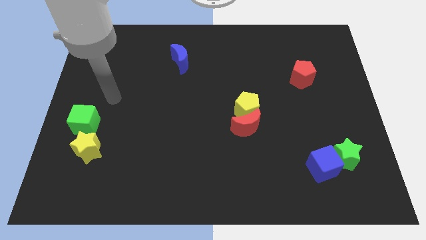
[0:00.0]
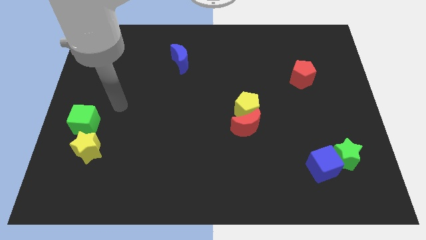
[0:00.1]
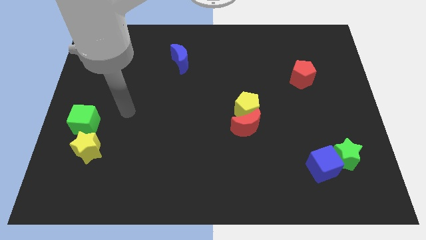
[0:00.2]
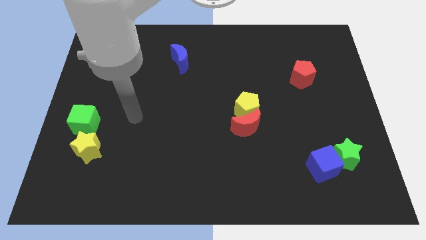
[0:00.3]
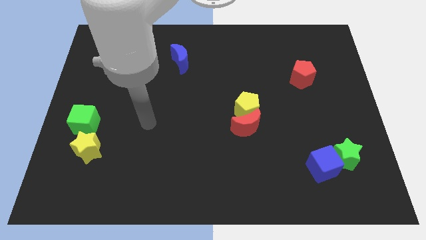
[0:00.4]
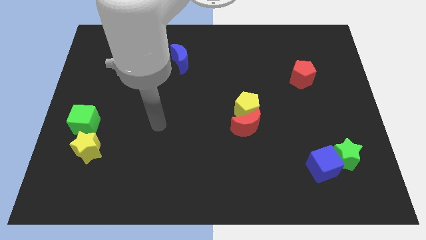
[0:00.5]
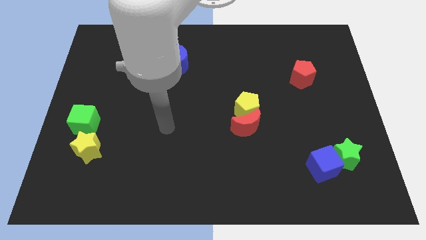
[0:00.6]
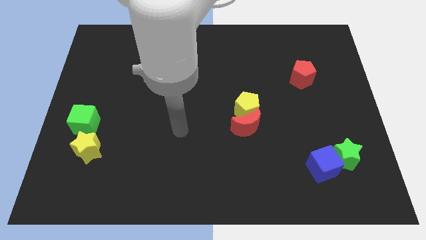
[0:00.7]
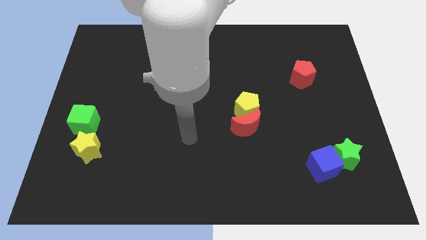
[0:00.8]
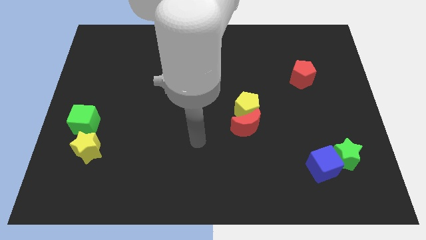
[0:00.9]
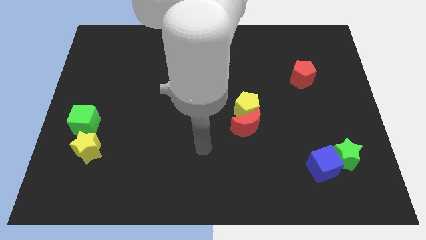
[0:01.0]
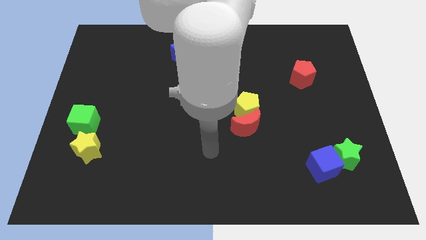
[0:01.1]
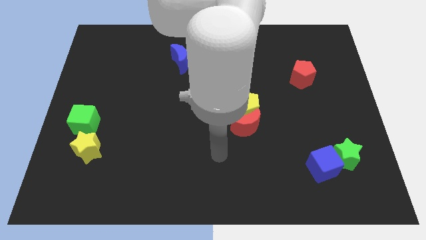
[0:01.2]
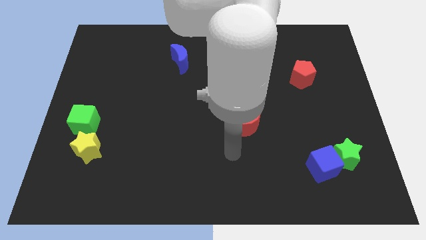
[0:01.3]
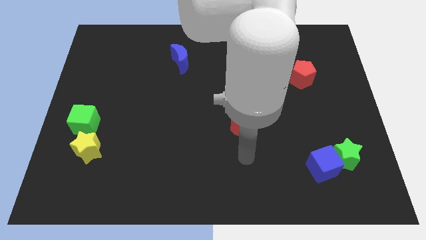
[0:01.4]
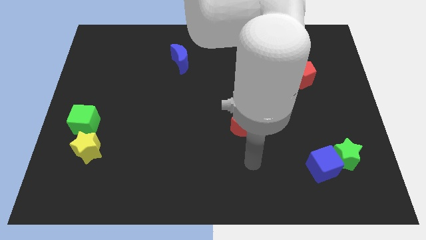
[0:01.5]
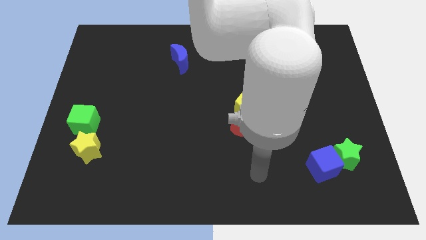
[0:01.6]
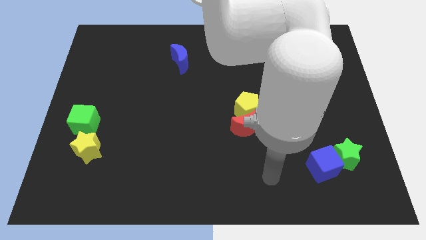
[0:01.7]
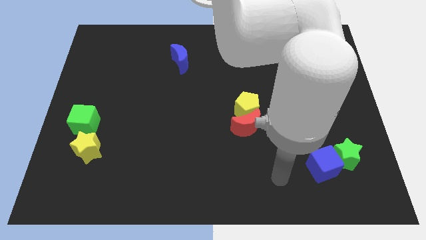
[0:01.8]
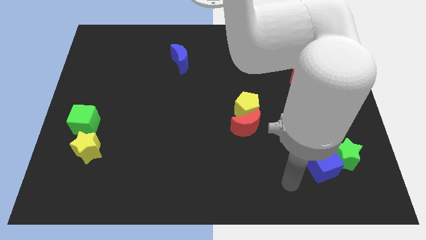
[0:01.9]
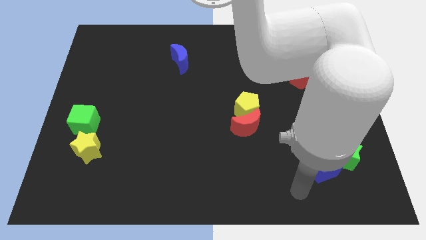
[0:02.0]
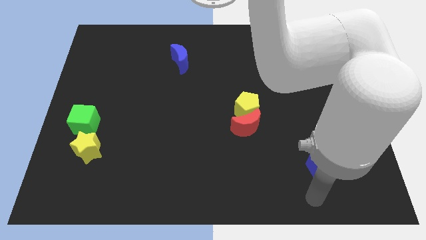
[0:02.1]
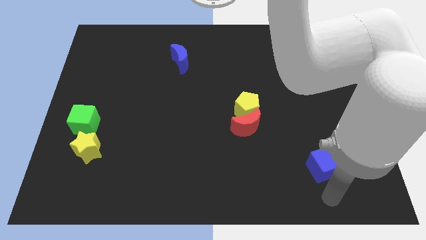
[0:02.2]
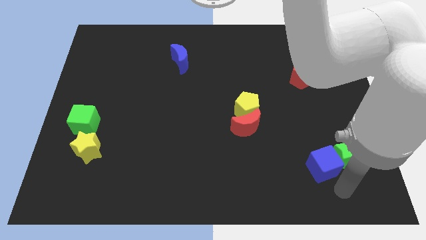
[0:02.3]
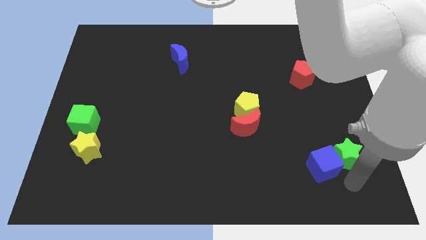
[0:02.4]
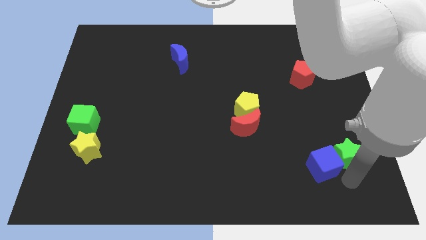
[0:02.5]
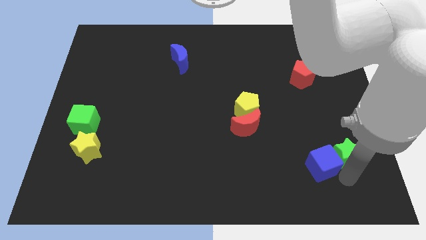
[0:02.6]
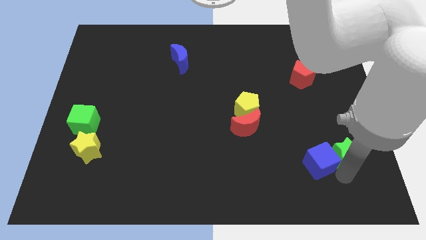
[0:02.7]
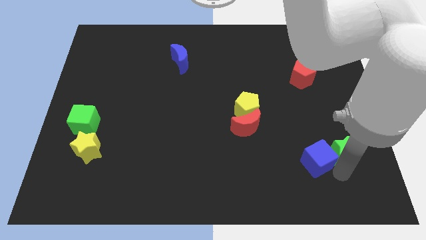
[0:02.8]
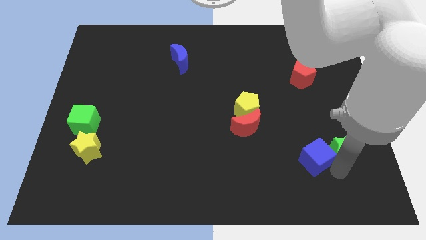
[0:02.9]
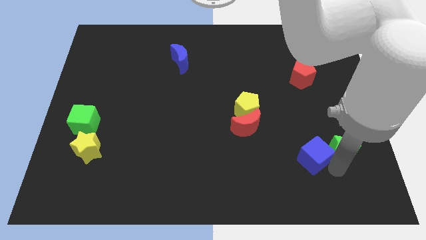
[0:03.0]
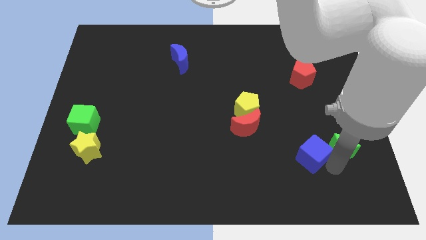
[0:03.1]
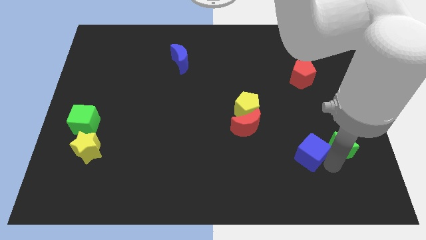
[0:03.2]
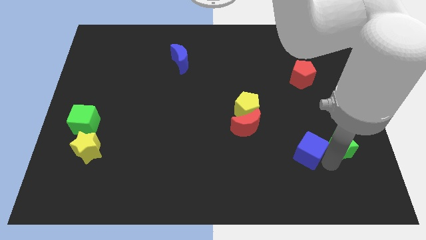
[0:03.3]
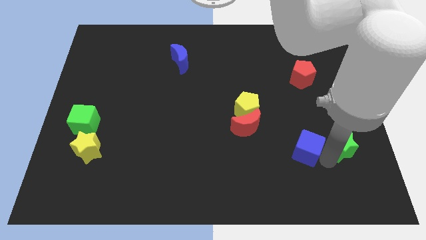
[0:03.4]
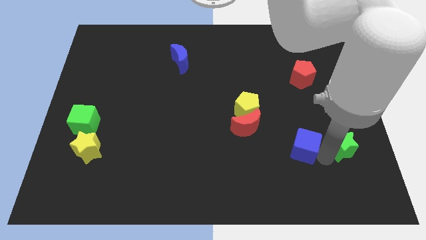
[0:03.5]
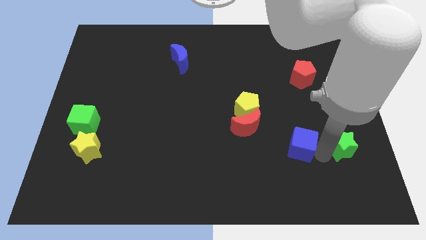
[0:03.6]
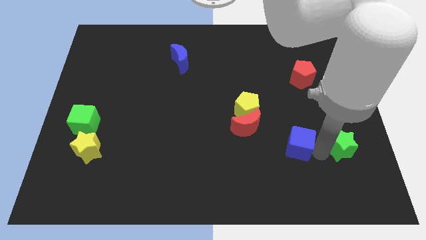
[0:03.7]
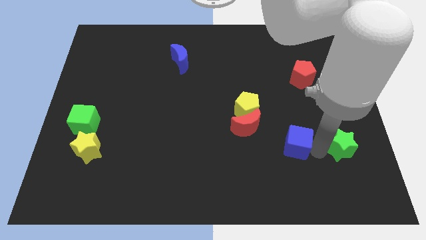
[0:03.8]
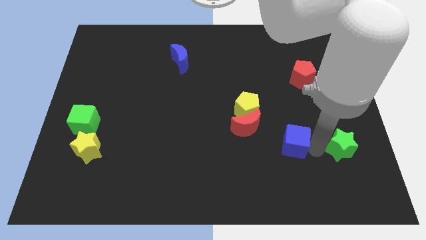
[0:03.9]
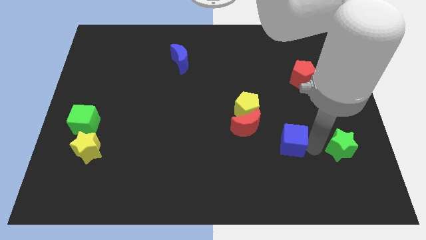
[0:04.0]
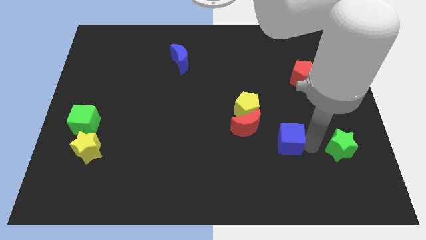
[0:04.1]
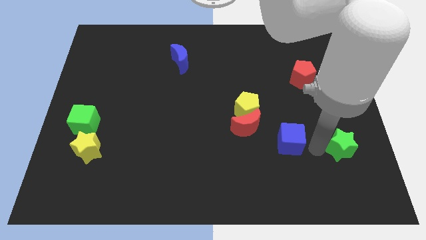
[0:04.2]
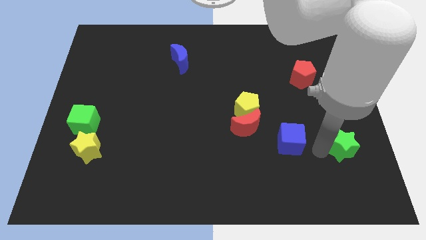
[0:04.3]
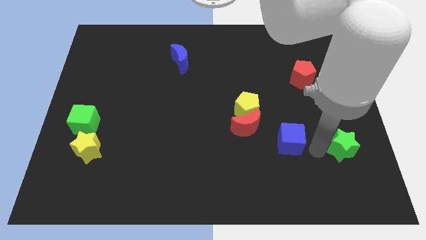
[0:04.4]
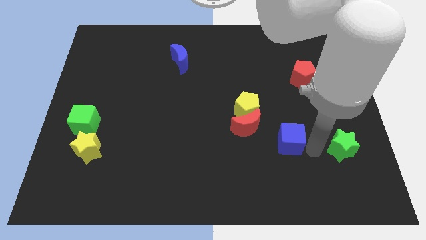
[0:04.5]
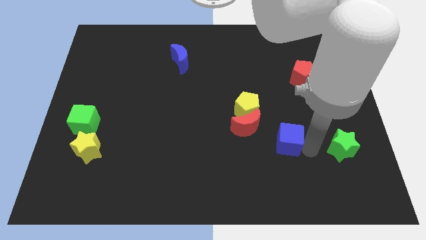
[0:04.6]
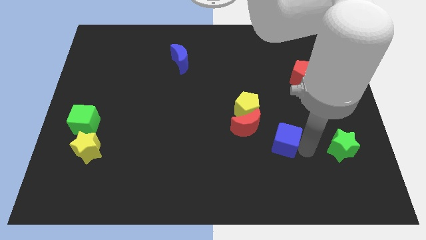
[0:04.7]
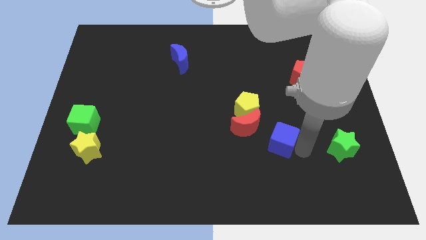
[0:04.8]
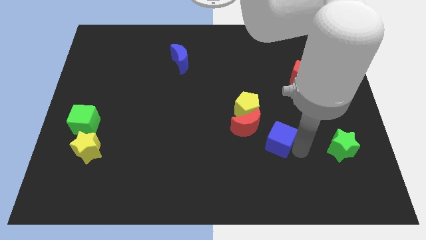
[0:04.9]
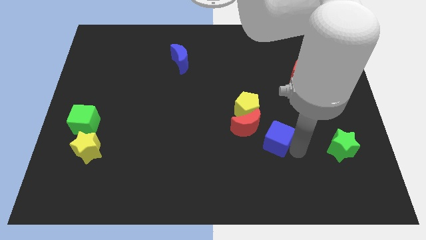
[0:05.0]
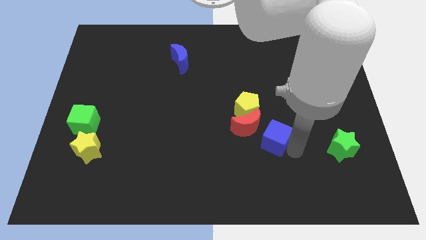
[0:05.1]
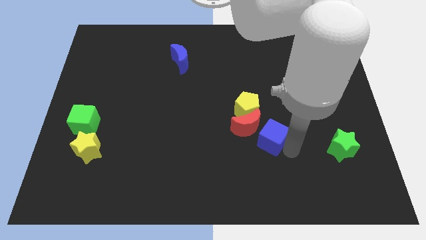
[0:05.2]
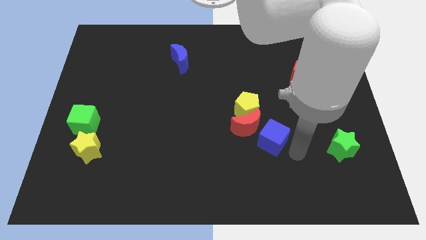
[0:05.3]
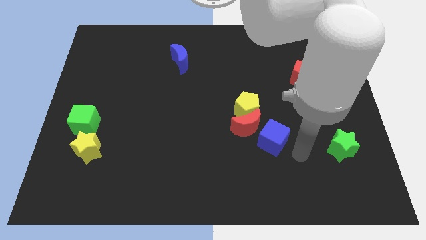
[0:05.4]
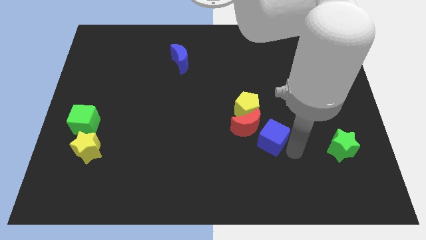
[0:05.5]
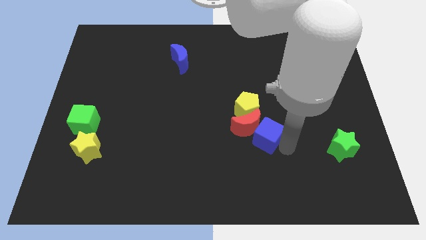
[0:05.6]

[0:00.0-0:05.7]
put the blue cube close to the red moon

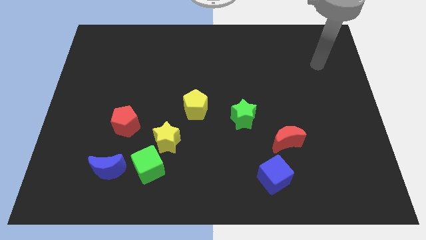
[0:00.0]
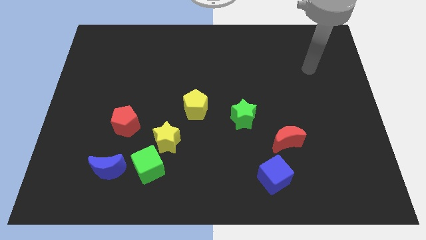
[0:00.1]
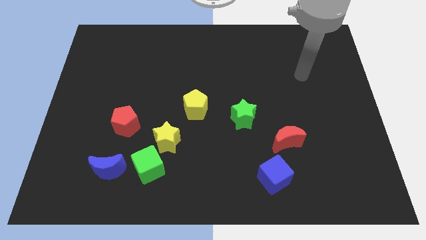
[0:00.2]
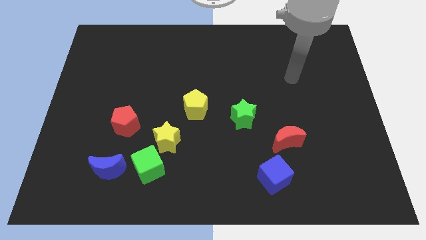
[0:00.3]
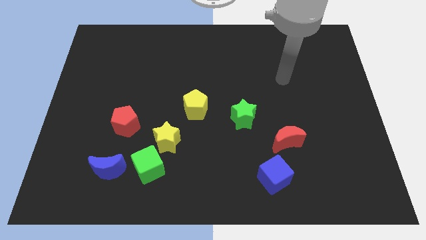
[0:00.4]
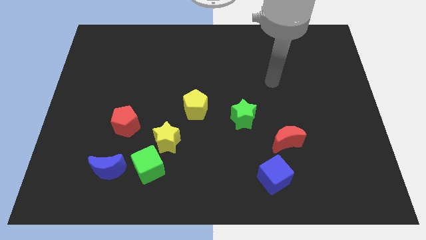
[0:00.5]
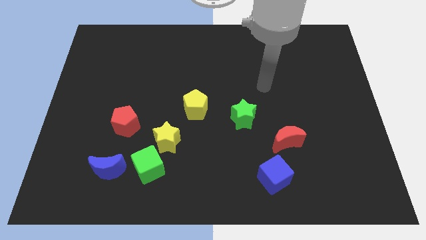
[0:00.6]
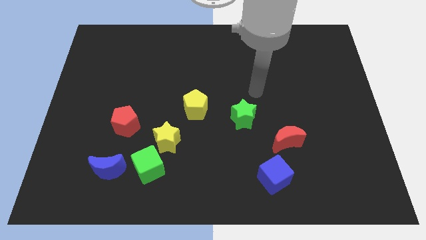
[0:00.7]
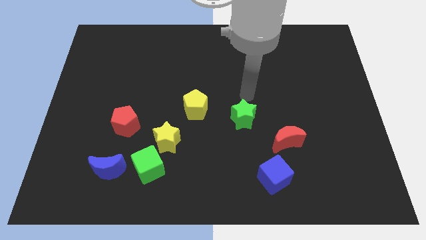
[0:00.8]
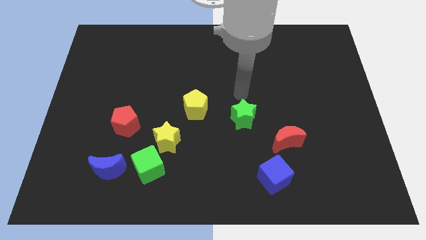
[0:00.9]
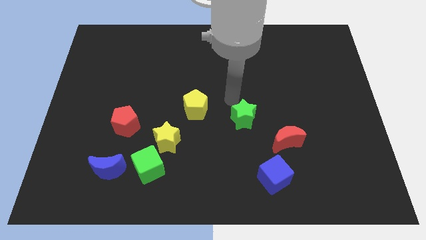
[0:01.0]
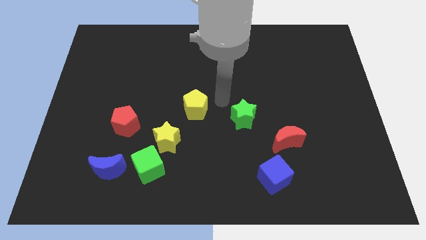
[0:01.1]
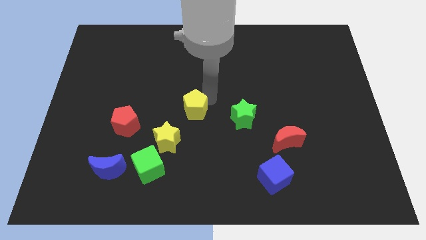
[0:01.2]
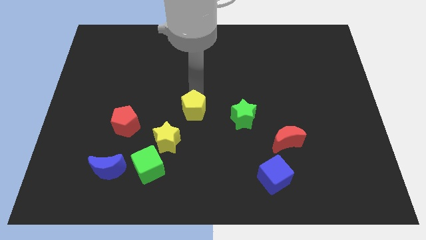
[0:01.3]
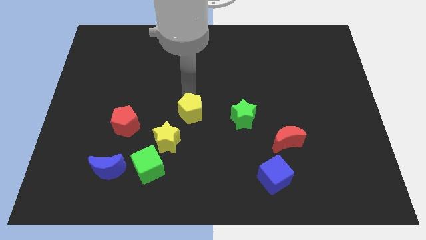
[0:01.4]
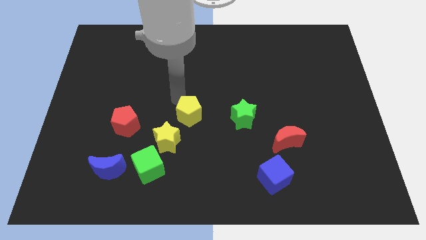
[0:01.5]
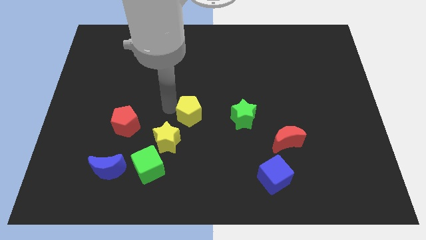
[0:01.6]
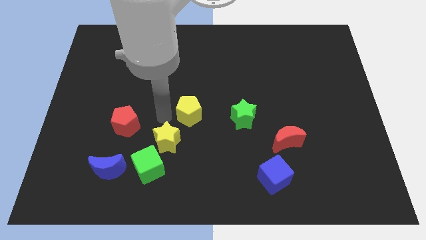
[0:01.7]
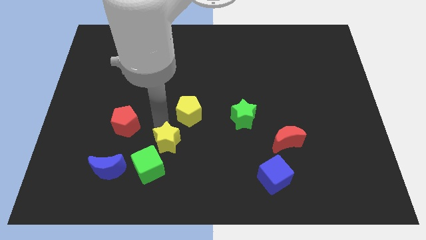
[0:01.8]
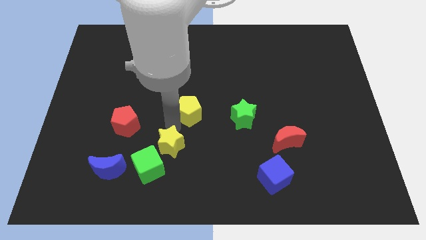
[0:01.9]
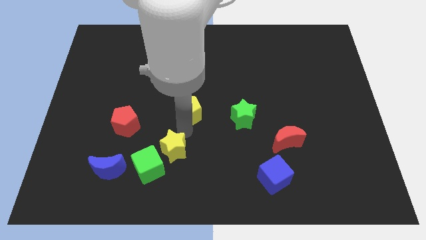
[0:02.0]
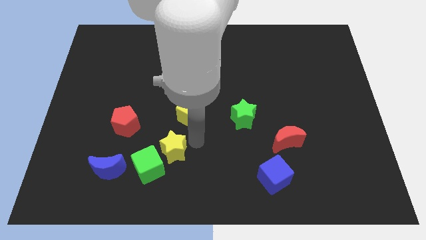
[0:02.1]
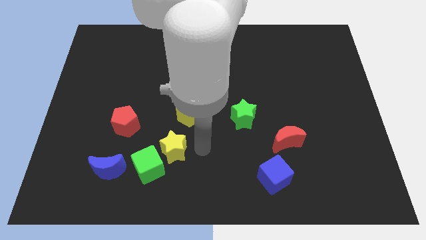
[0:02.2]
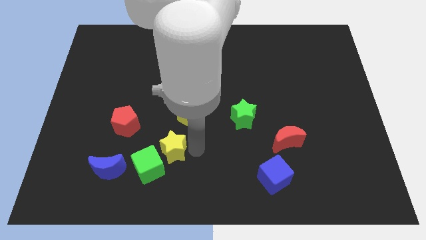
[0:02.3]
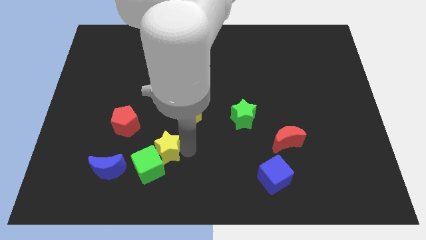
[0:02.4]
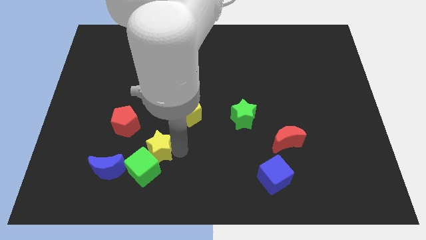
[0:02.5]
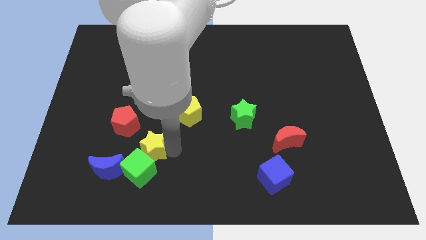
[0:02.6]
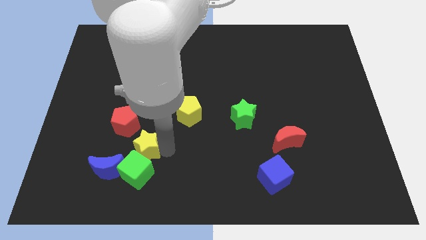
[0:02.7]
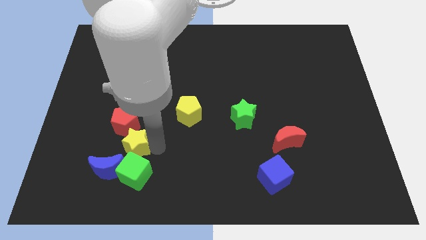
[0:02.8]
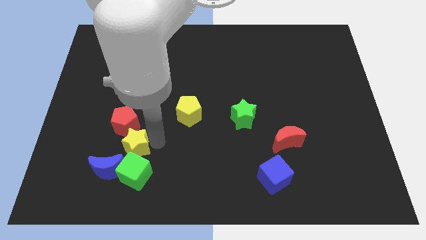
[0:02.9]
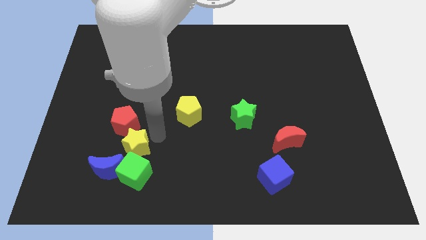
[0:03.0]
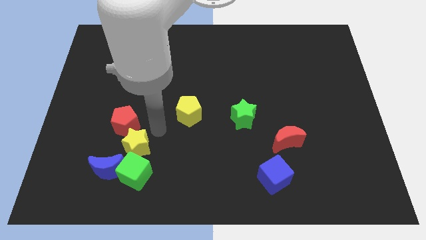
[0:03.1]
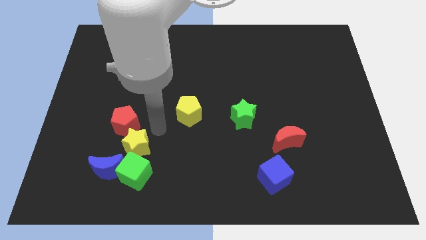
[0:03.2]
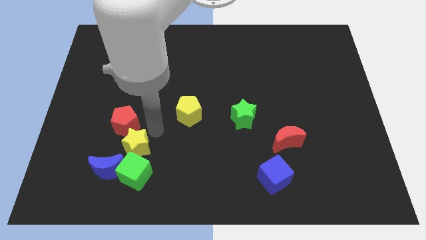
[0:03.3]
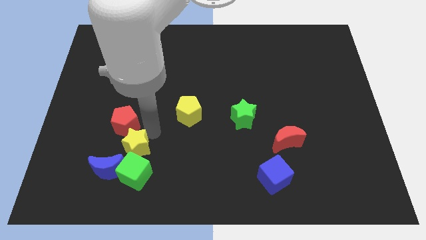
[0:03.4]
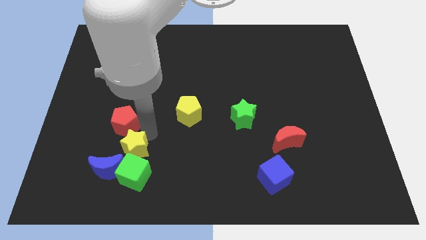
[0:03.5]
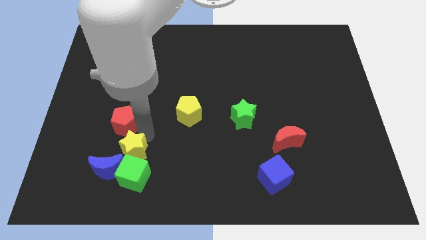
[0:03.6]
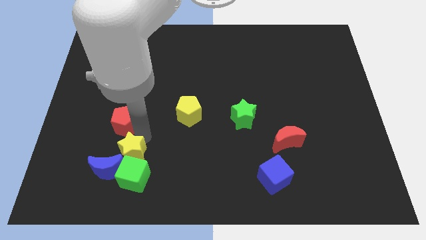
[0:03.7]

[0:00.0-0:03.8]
put the yellow star towards the blue moon
